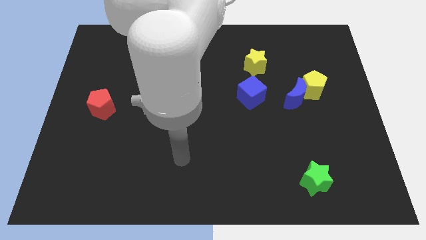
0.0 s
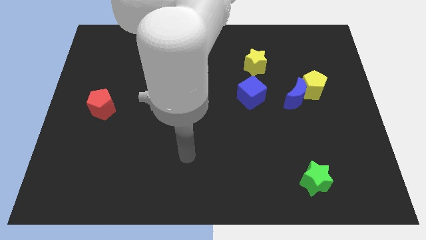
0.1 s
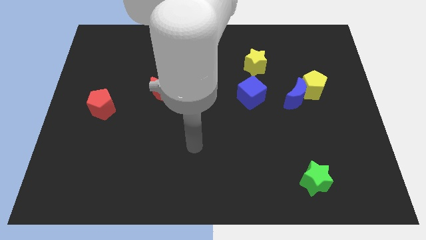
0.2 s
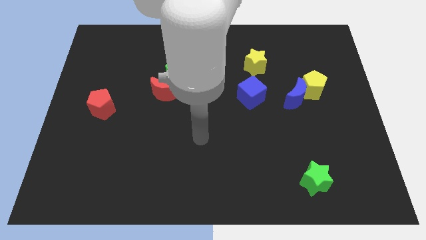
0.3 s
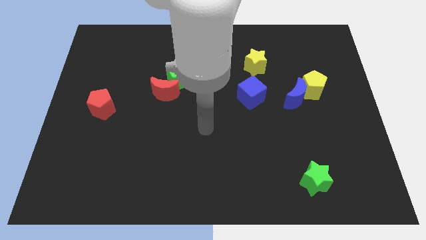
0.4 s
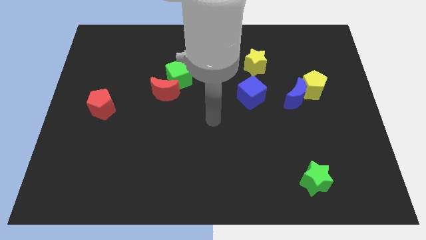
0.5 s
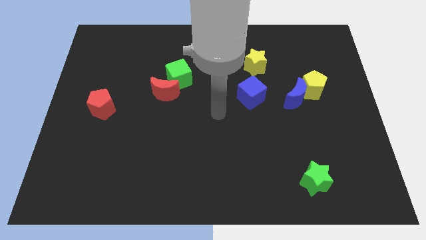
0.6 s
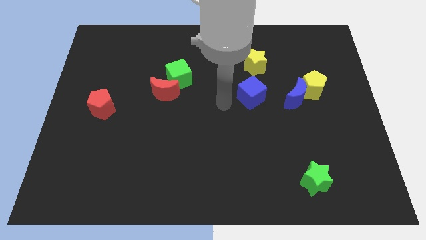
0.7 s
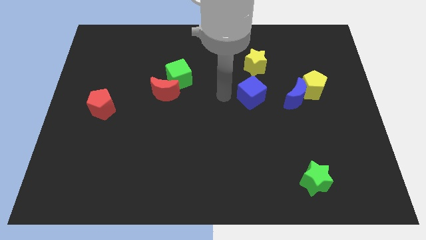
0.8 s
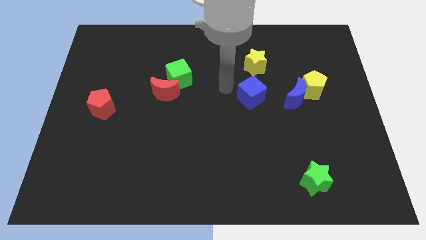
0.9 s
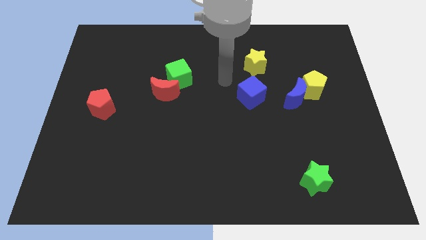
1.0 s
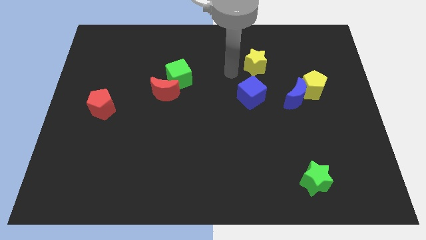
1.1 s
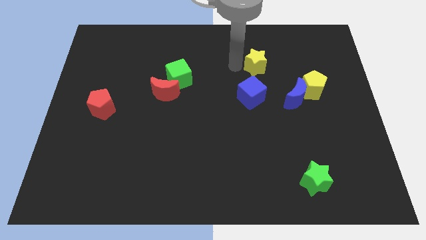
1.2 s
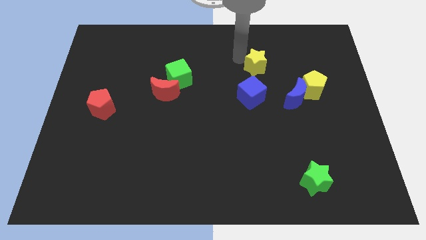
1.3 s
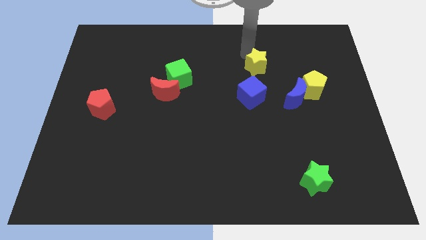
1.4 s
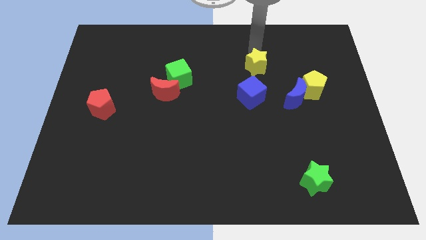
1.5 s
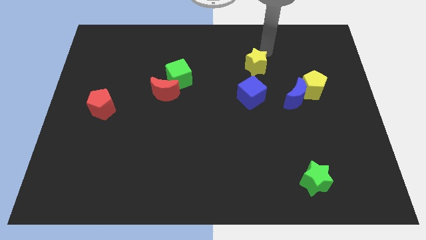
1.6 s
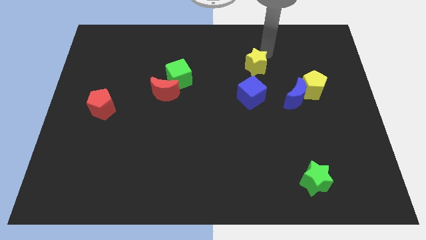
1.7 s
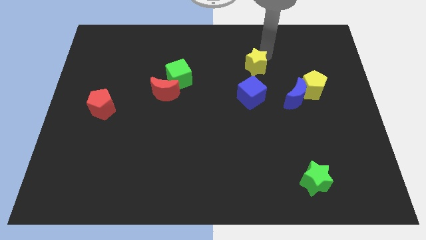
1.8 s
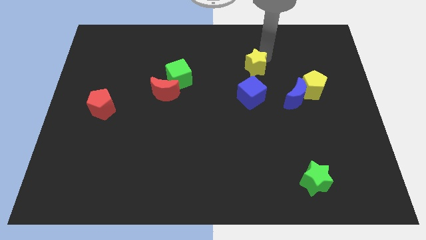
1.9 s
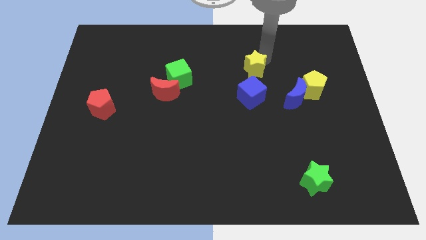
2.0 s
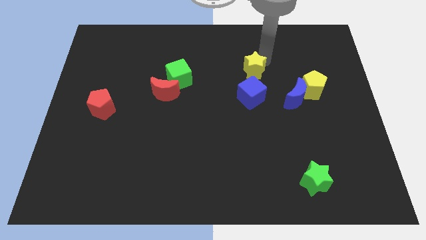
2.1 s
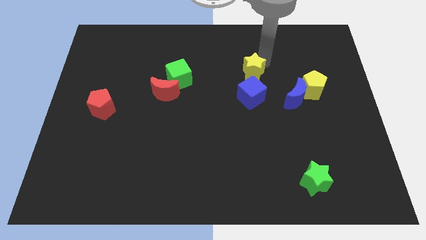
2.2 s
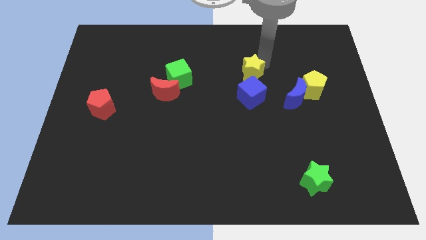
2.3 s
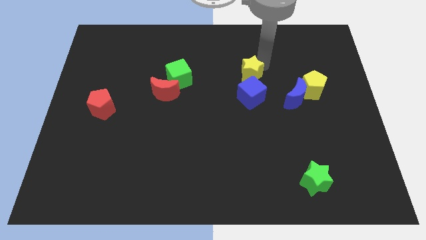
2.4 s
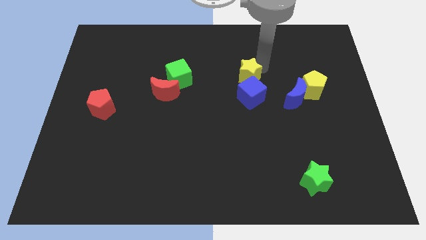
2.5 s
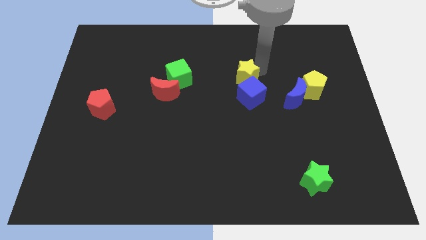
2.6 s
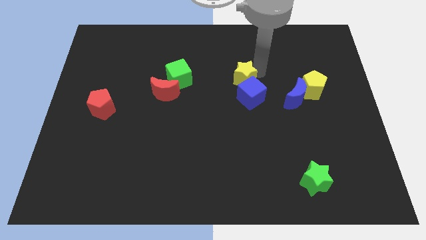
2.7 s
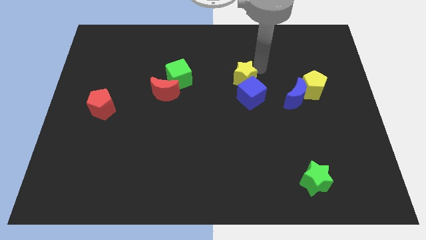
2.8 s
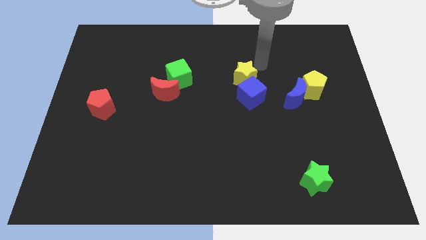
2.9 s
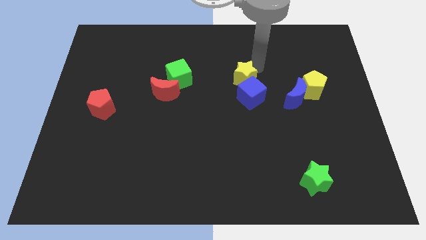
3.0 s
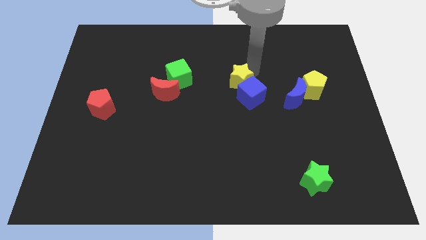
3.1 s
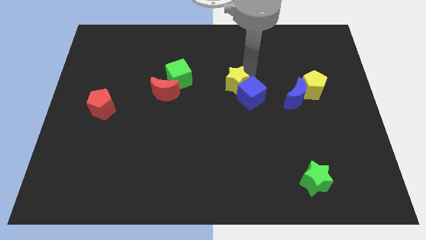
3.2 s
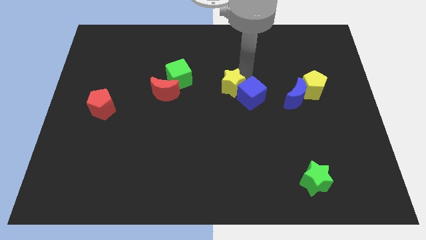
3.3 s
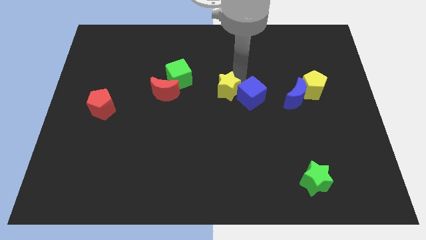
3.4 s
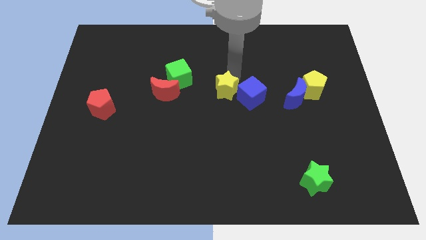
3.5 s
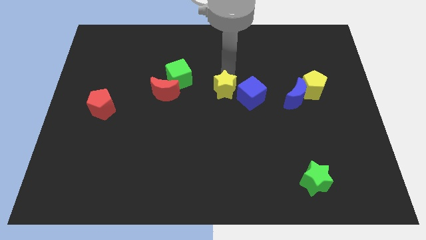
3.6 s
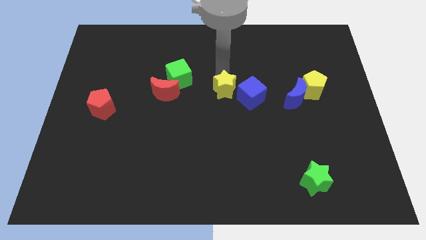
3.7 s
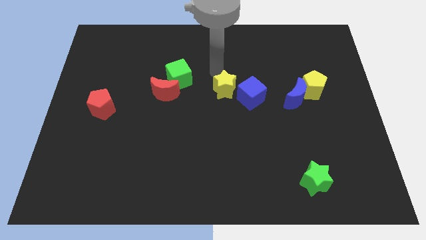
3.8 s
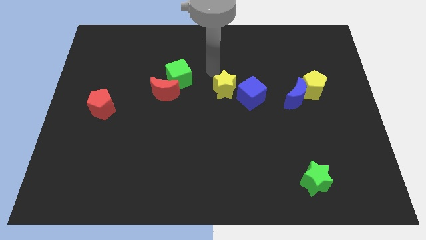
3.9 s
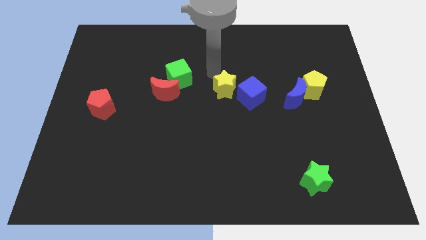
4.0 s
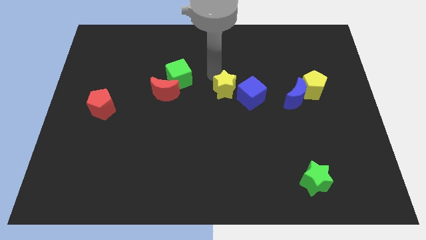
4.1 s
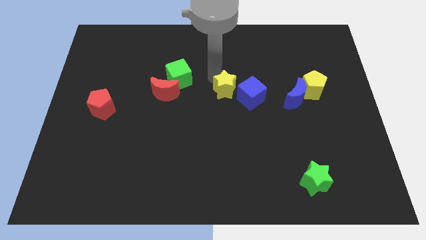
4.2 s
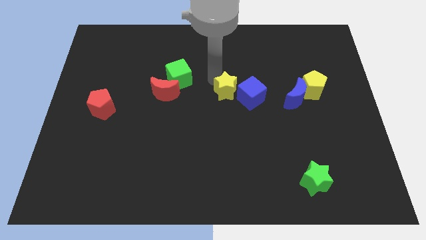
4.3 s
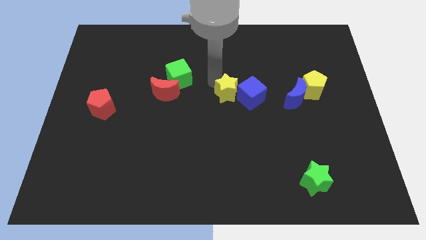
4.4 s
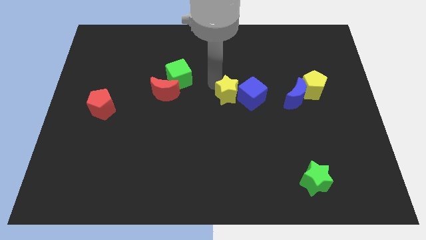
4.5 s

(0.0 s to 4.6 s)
move the yellow star somewhat downwards

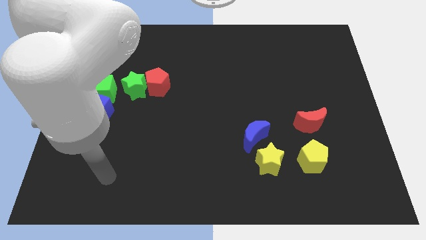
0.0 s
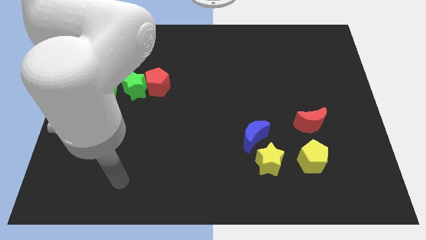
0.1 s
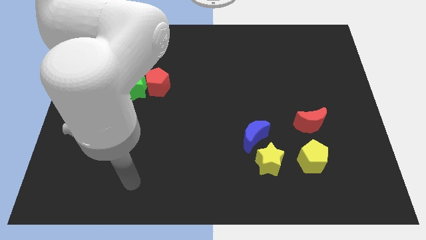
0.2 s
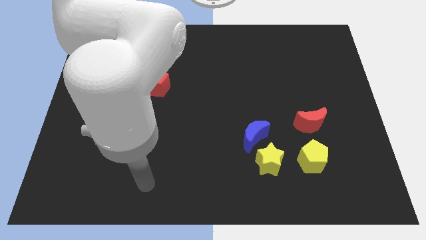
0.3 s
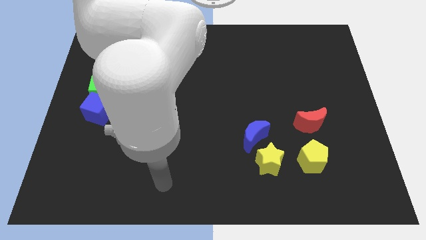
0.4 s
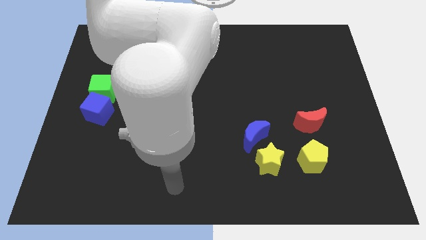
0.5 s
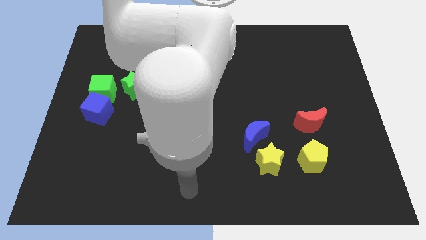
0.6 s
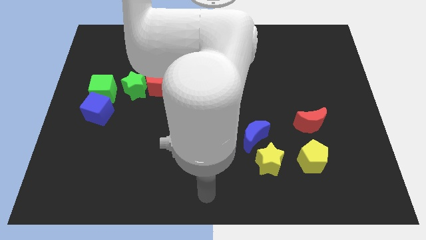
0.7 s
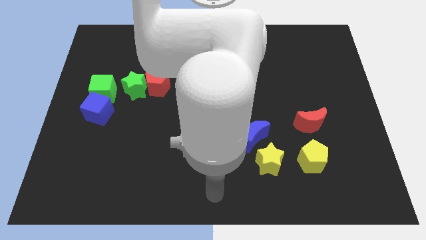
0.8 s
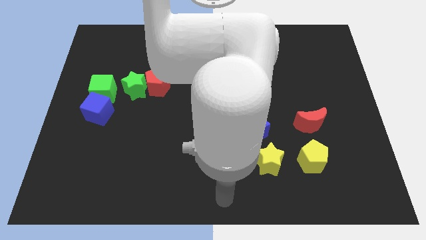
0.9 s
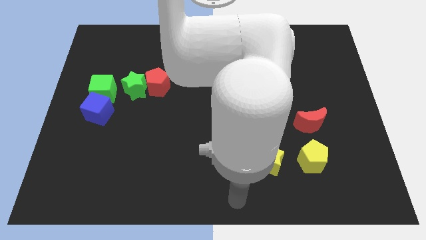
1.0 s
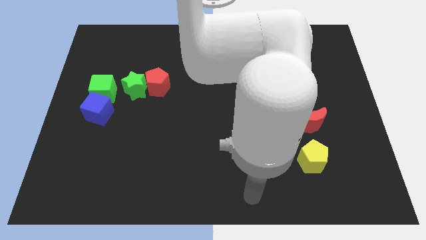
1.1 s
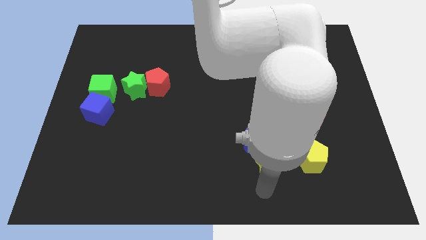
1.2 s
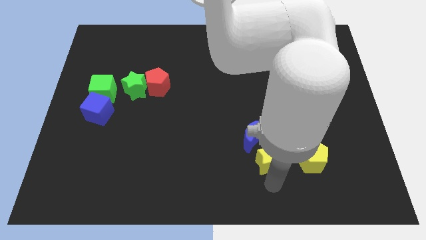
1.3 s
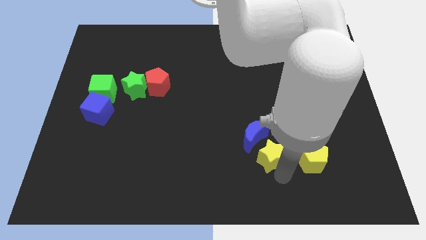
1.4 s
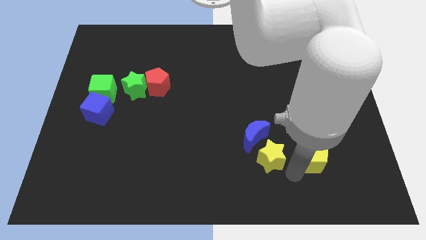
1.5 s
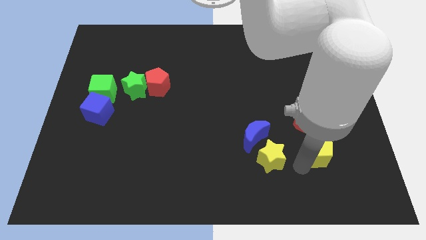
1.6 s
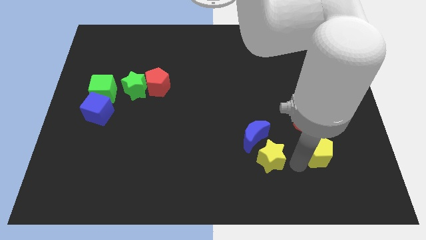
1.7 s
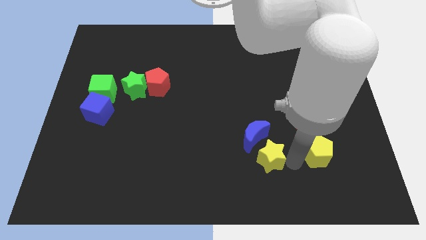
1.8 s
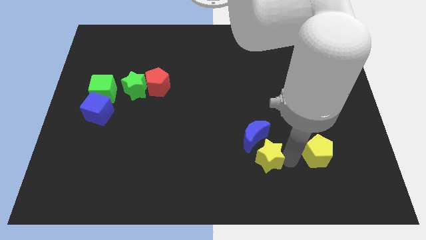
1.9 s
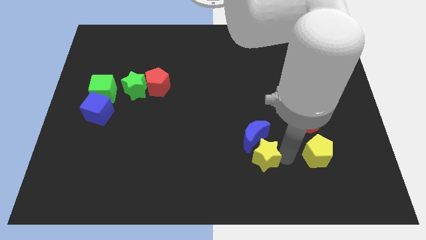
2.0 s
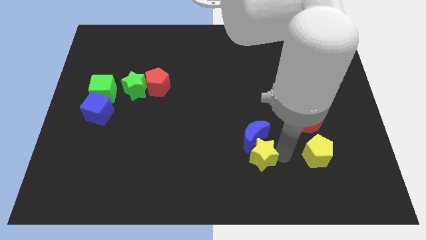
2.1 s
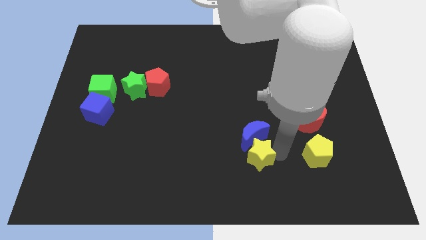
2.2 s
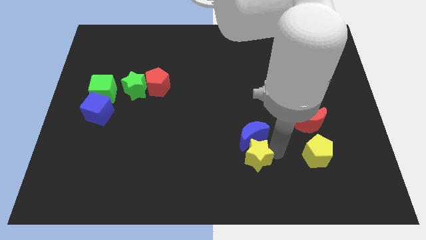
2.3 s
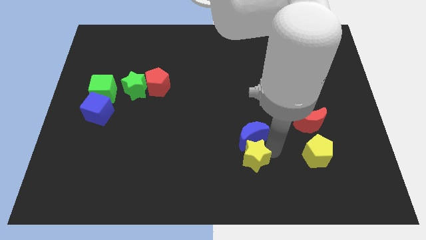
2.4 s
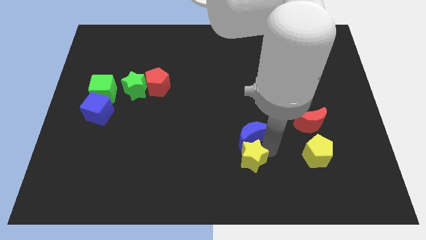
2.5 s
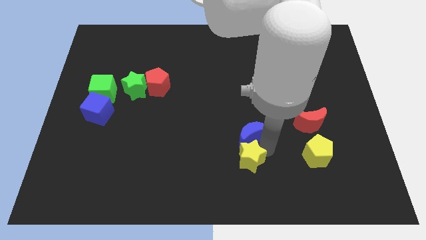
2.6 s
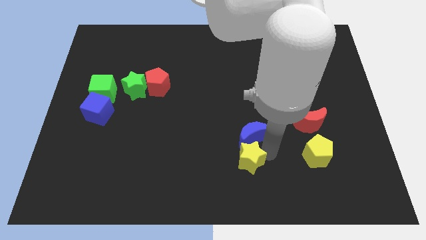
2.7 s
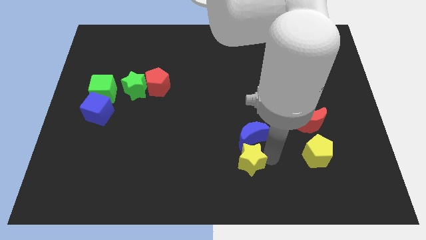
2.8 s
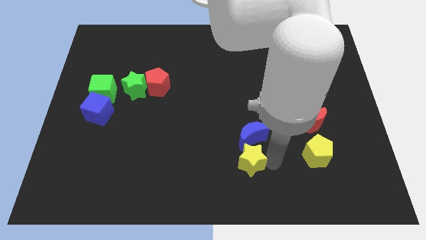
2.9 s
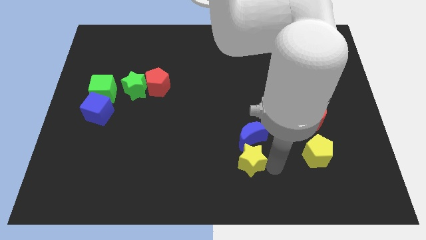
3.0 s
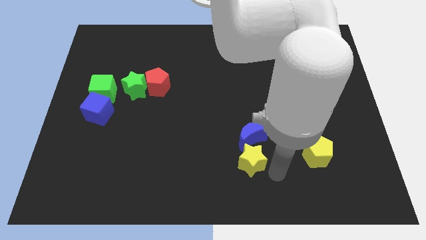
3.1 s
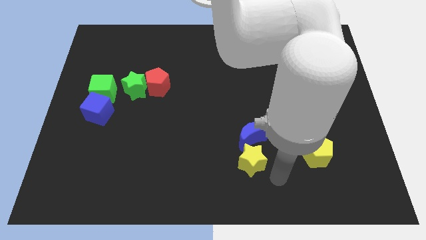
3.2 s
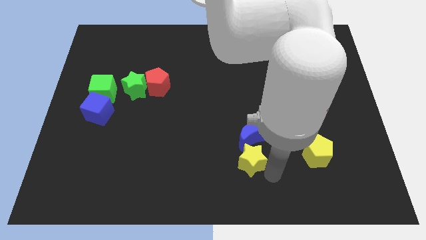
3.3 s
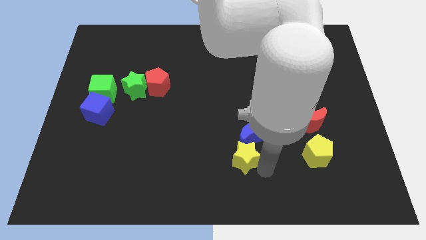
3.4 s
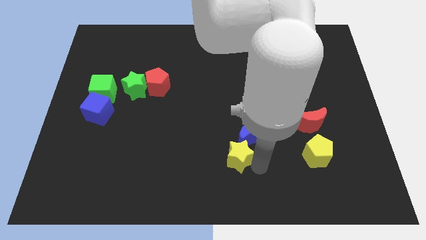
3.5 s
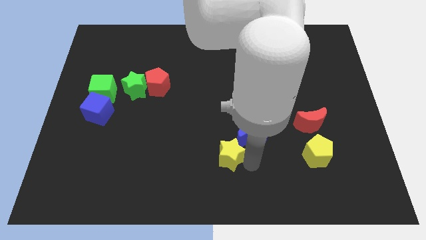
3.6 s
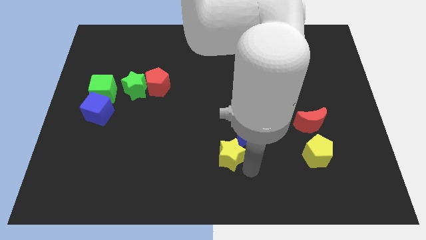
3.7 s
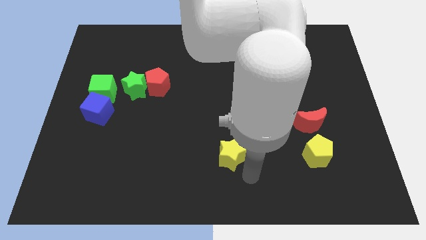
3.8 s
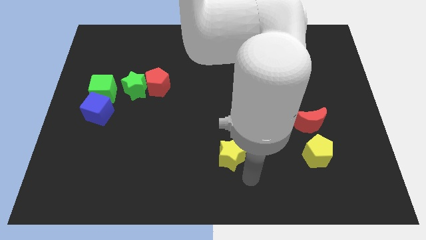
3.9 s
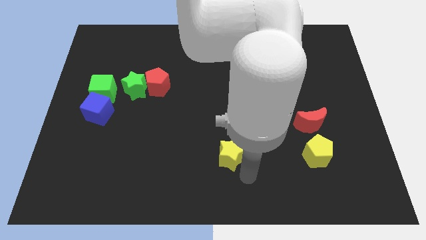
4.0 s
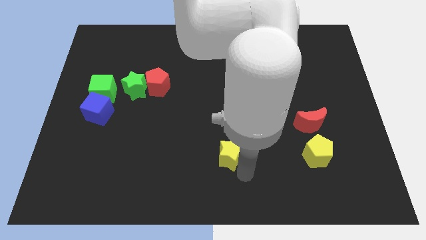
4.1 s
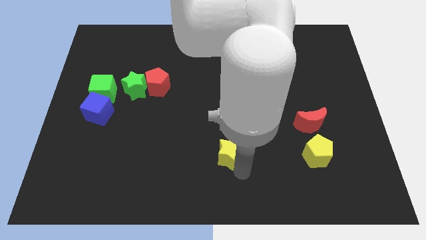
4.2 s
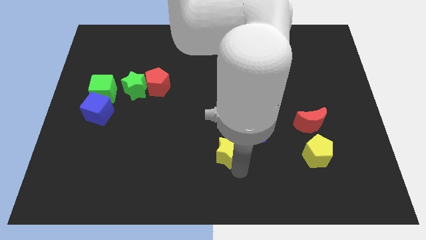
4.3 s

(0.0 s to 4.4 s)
slightly move the yellow star up and to the left diagonally
